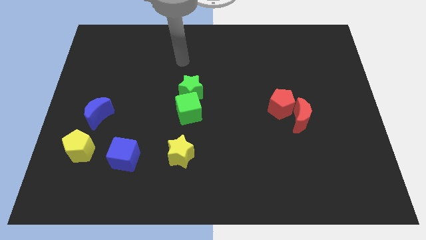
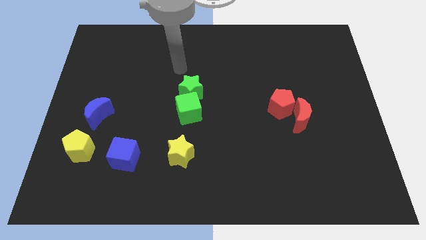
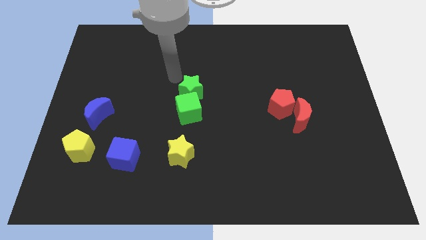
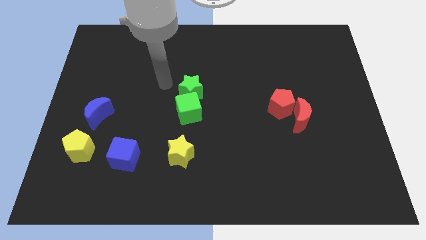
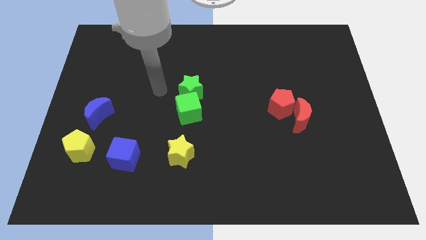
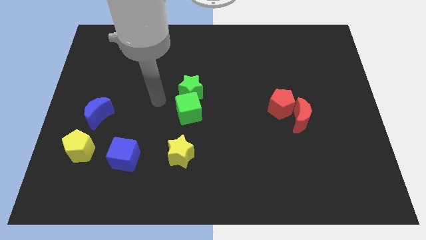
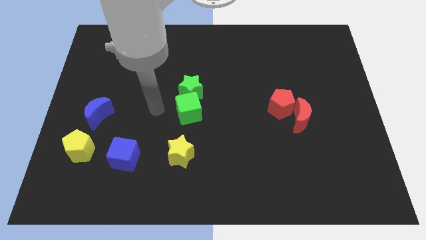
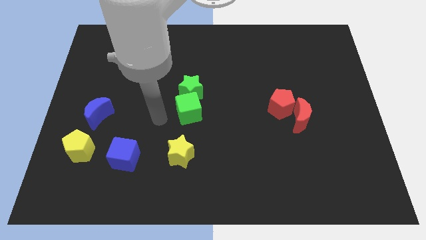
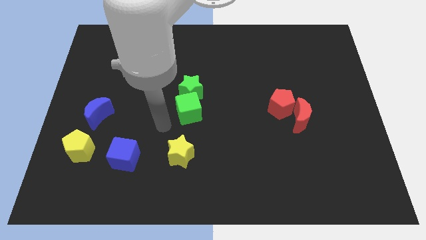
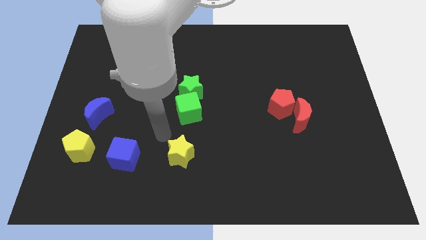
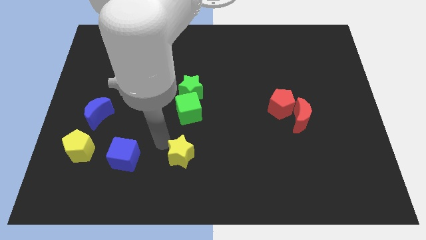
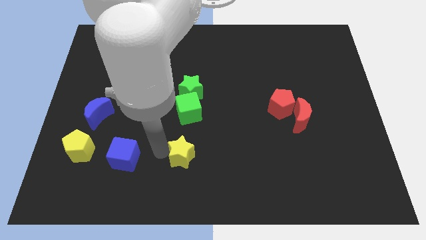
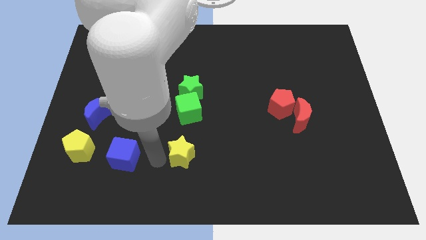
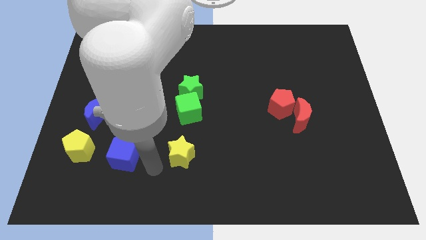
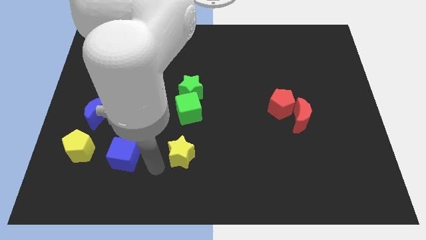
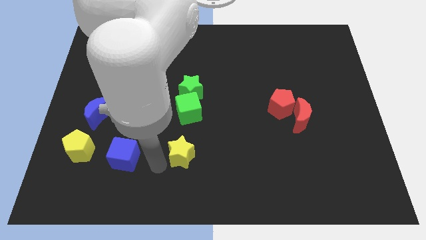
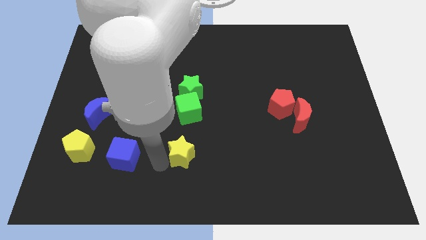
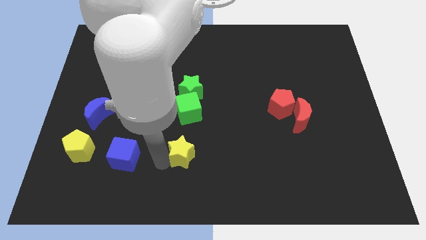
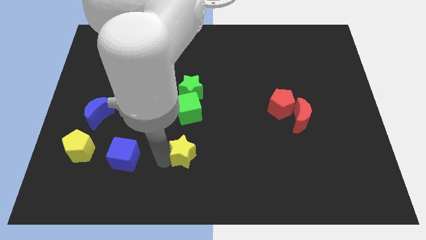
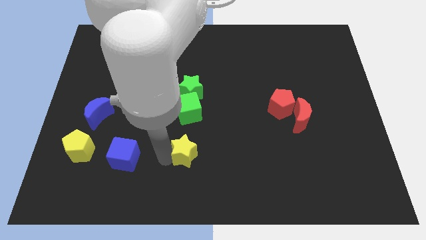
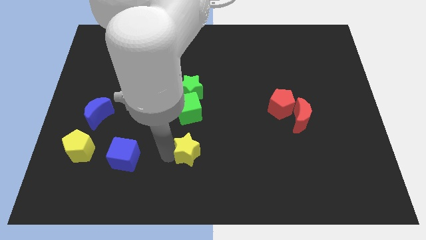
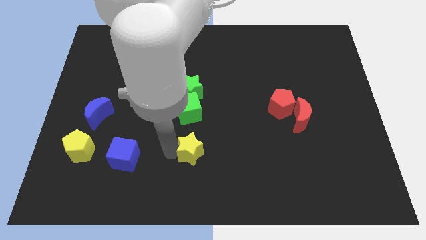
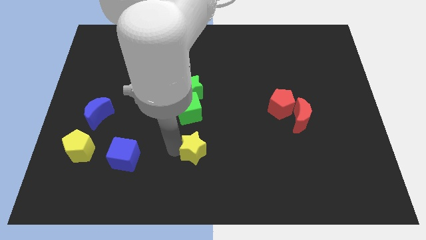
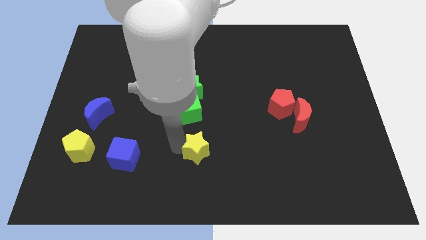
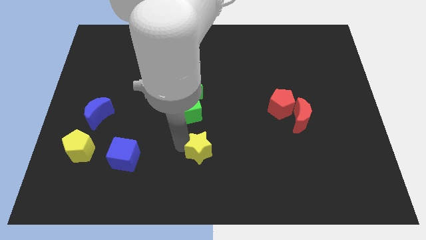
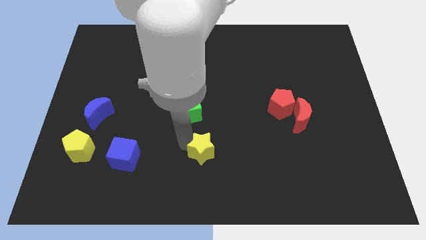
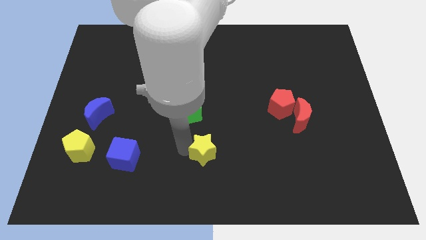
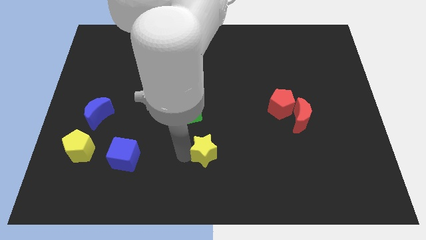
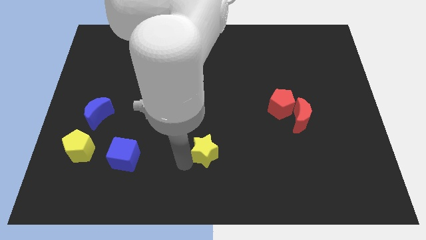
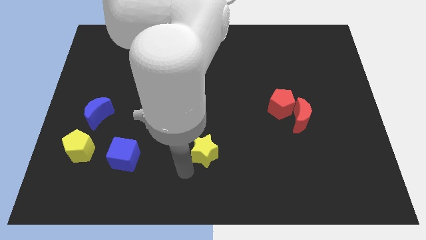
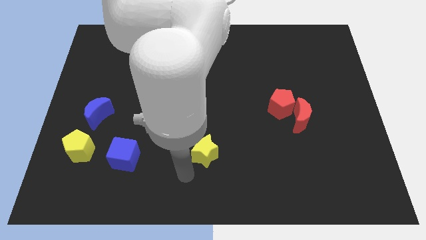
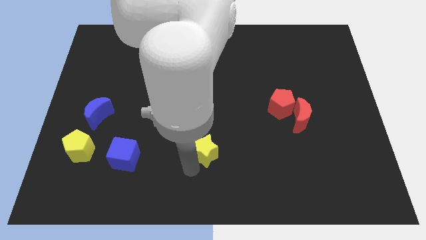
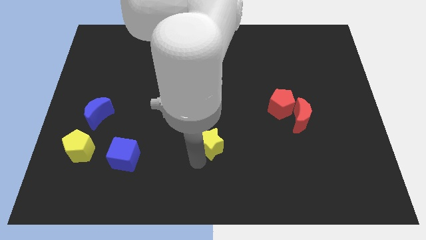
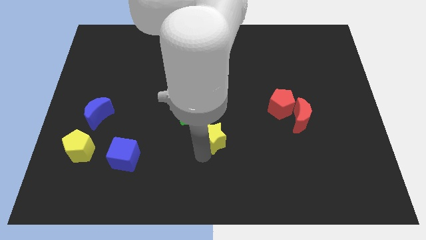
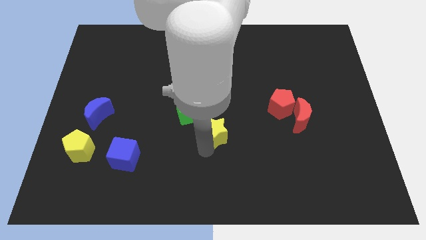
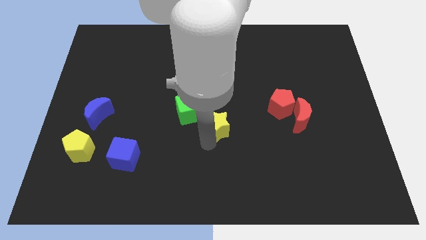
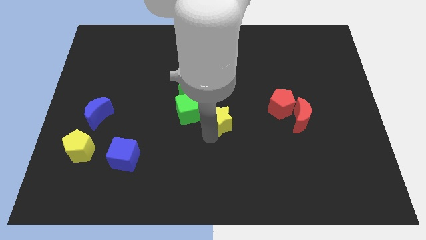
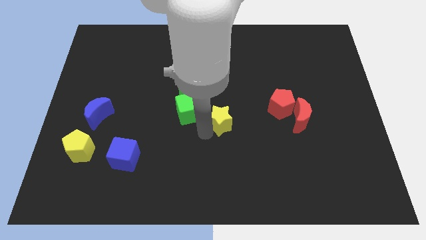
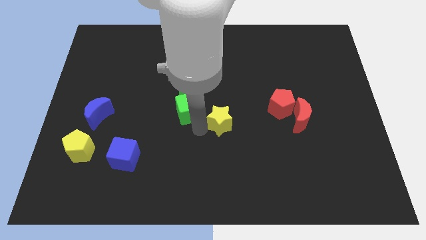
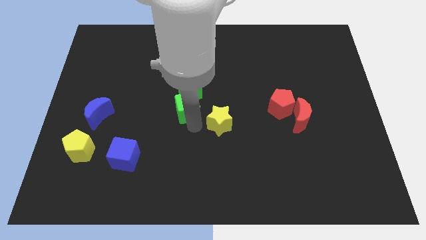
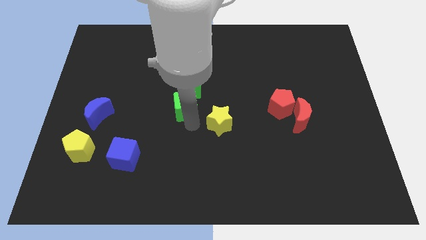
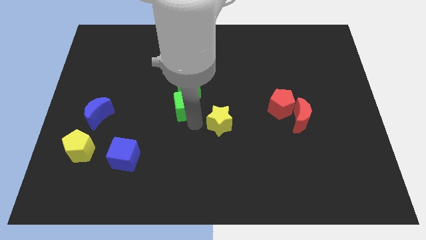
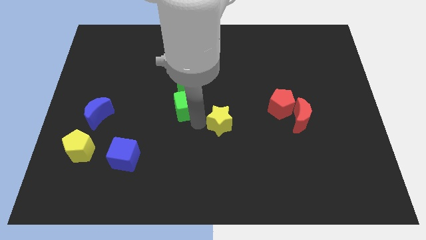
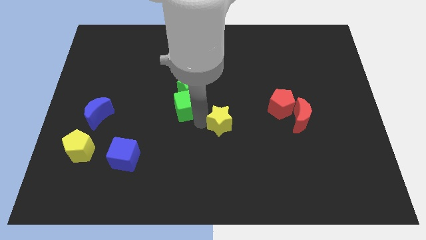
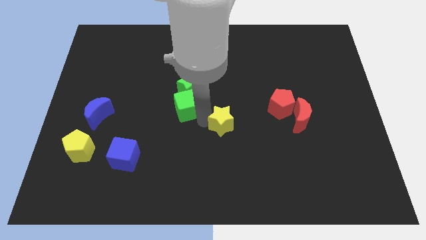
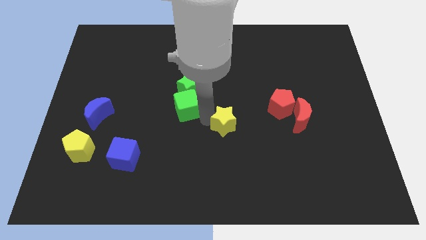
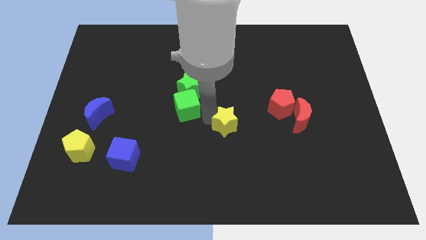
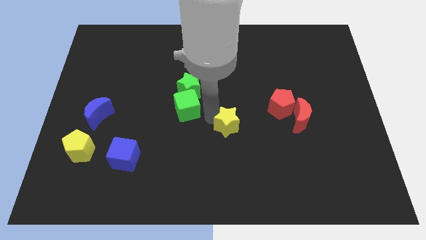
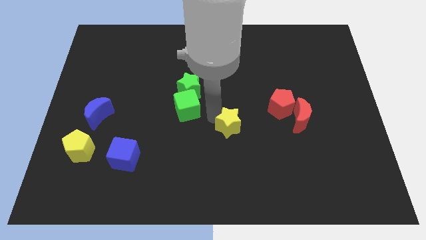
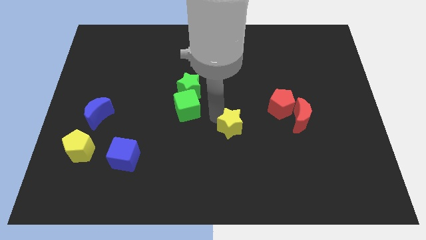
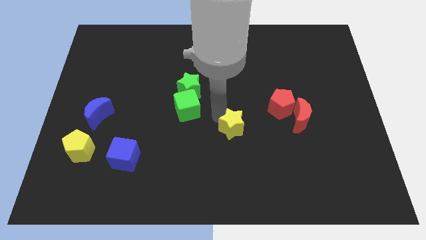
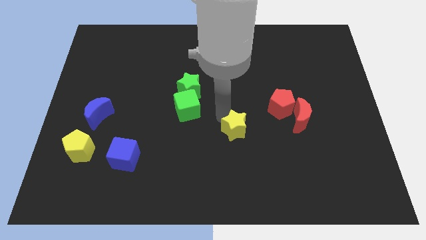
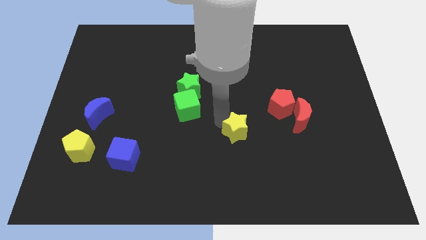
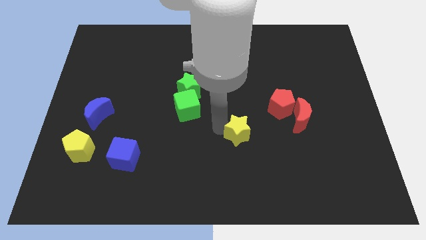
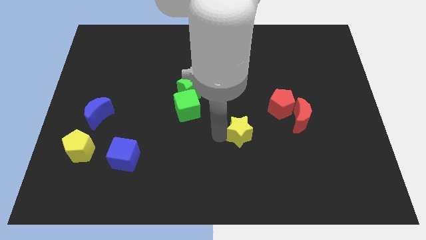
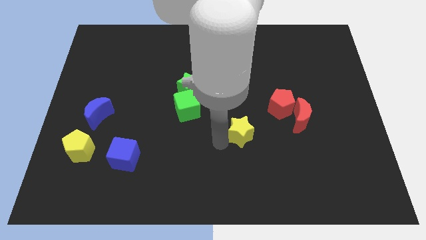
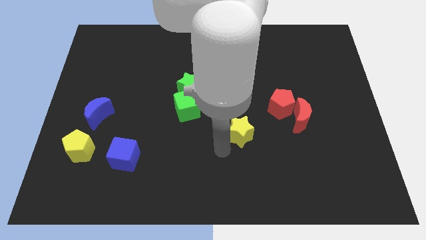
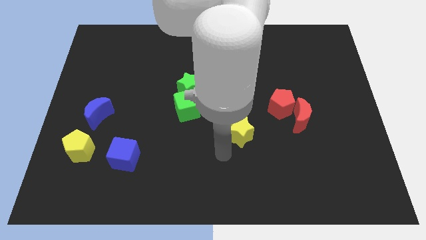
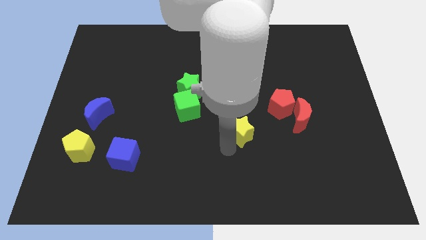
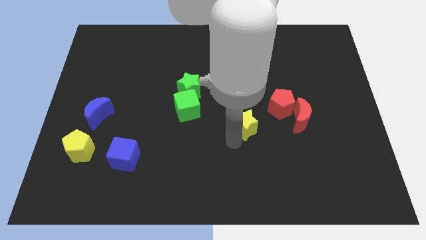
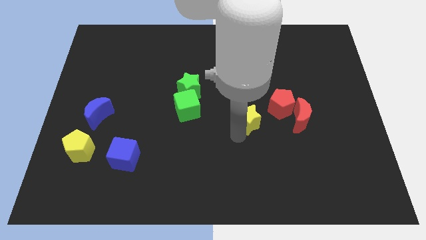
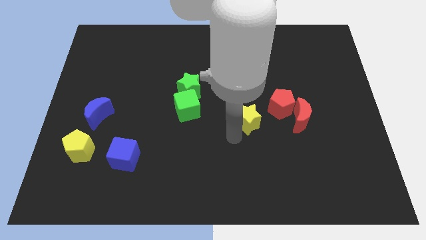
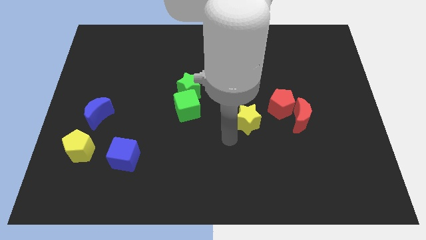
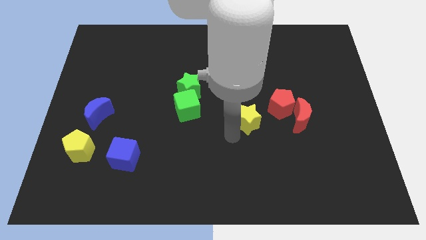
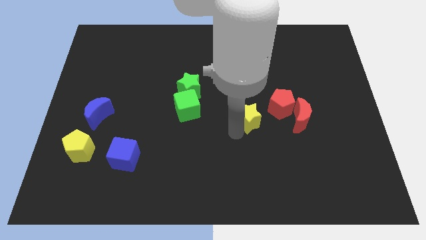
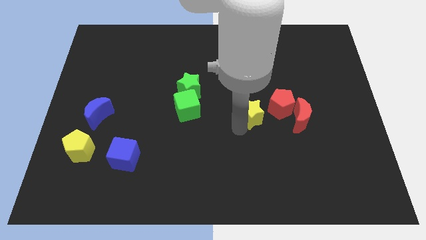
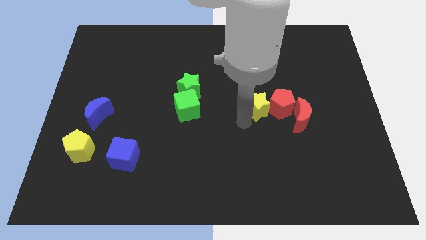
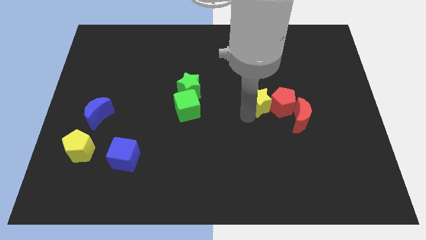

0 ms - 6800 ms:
slide the yellow star to the top left of the red moon
